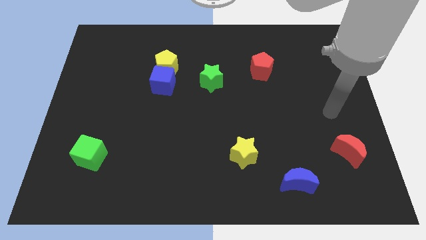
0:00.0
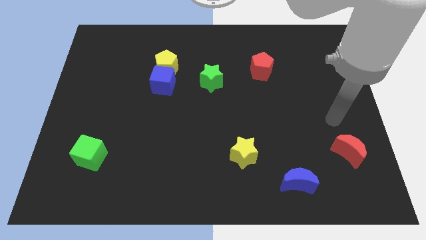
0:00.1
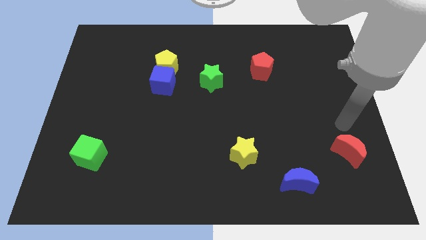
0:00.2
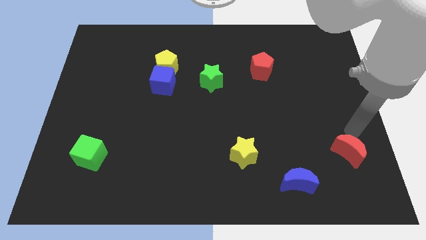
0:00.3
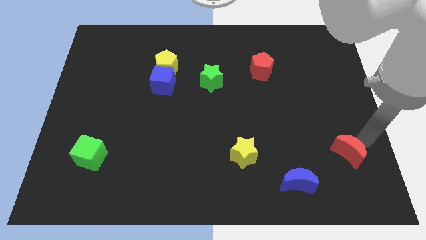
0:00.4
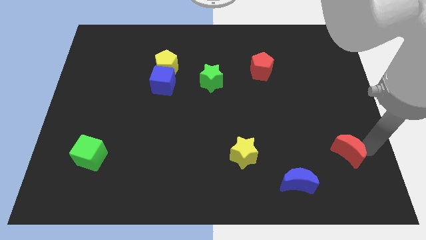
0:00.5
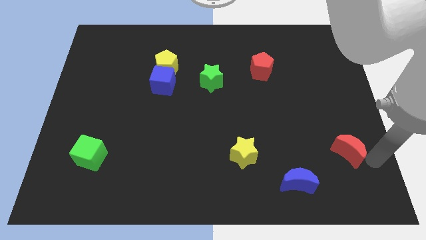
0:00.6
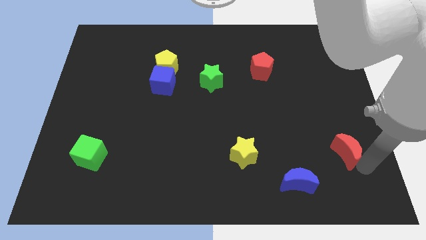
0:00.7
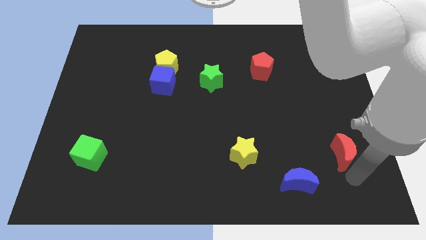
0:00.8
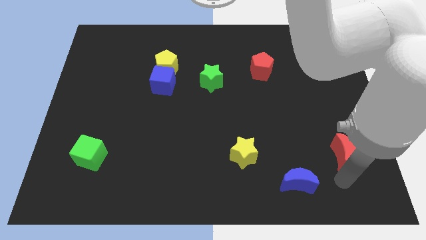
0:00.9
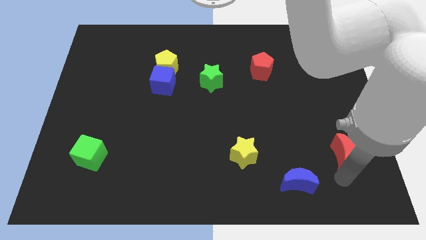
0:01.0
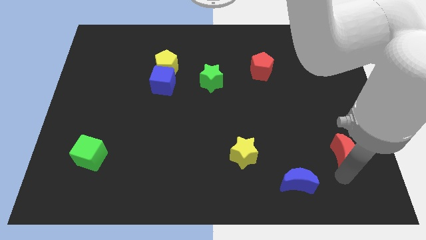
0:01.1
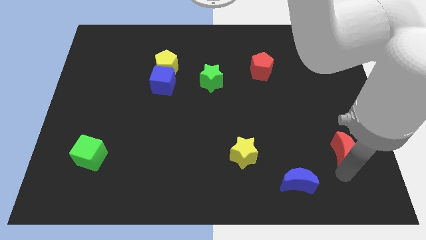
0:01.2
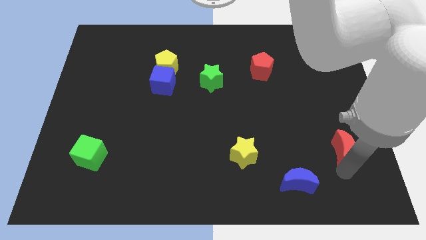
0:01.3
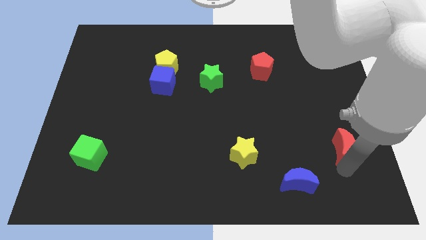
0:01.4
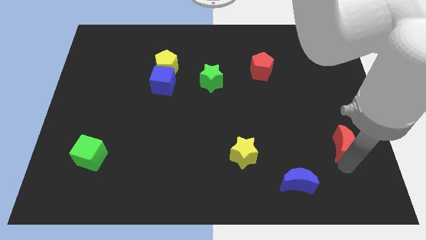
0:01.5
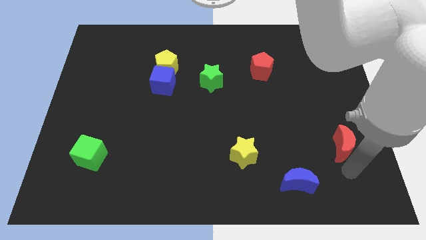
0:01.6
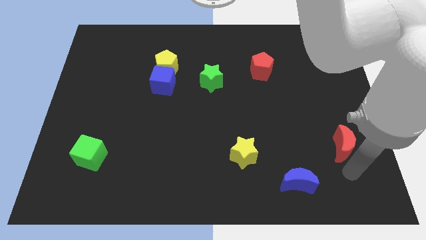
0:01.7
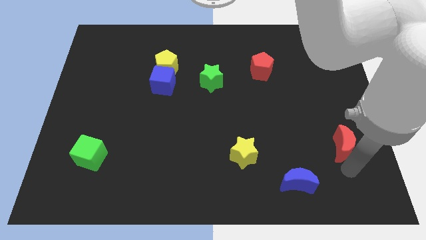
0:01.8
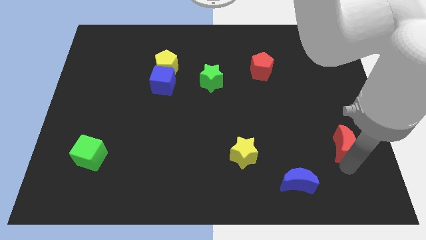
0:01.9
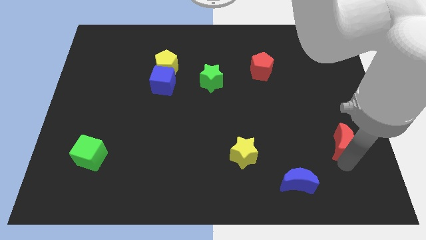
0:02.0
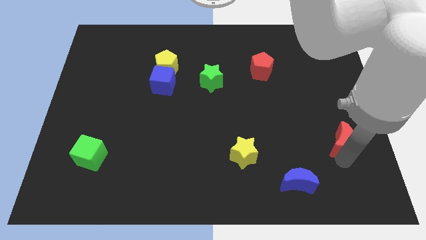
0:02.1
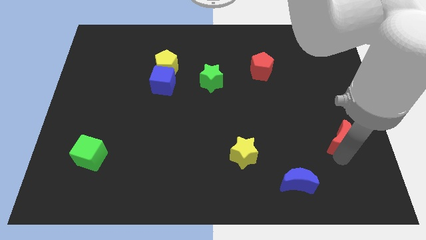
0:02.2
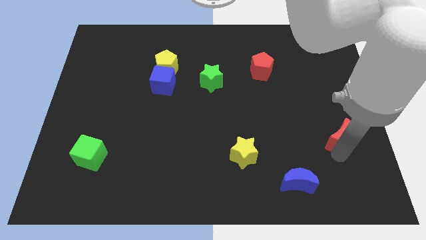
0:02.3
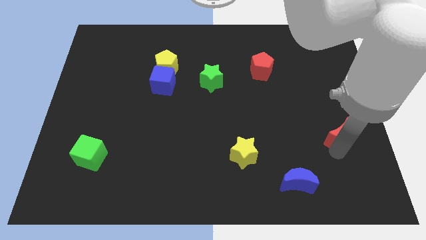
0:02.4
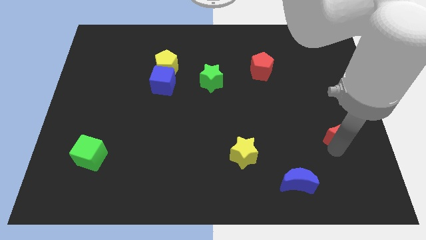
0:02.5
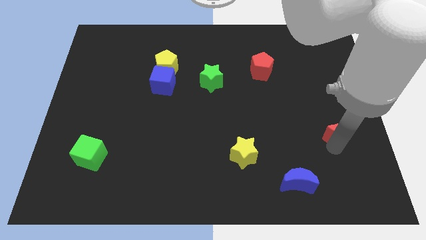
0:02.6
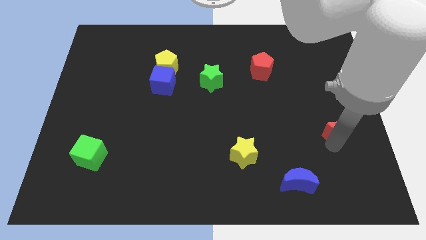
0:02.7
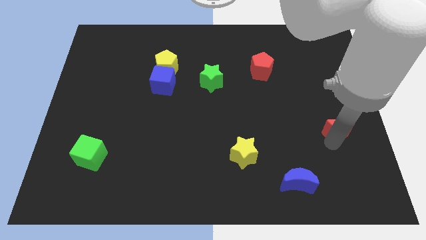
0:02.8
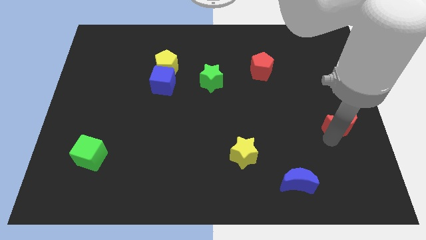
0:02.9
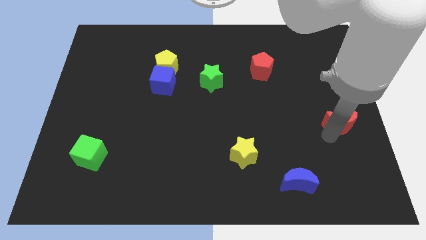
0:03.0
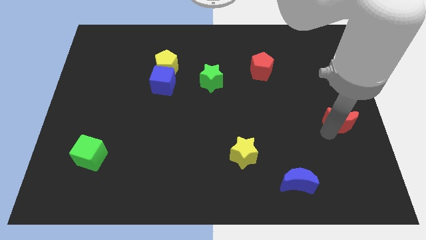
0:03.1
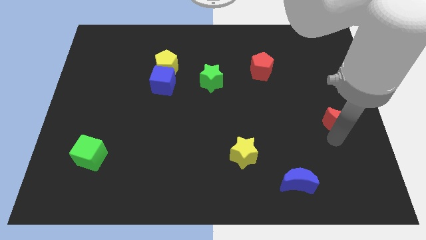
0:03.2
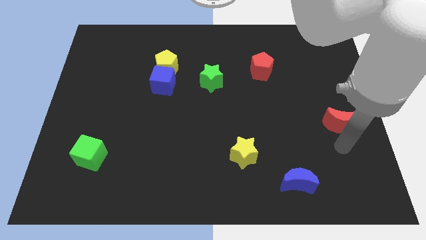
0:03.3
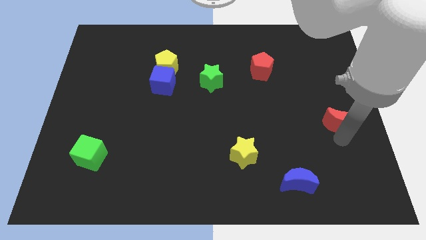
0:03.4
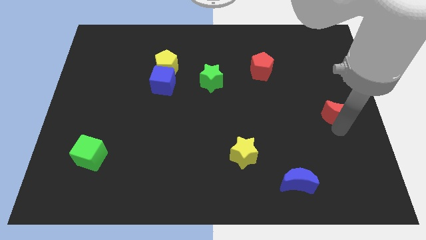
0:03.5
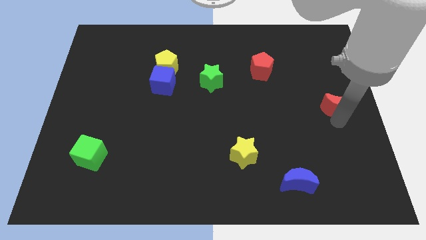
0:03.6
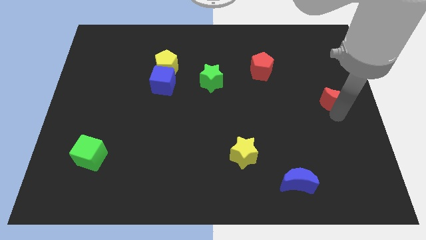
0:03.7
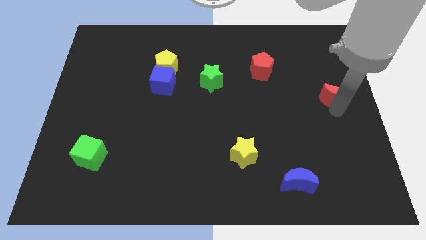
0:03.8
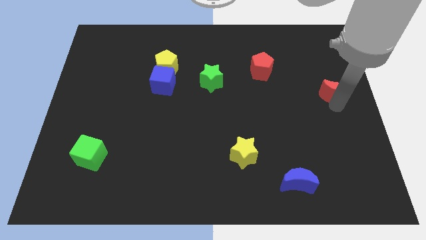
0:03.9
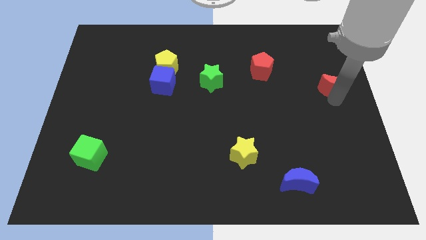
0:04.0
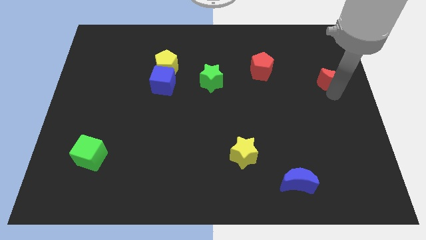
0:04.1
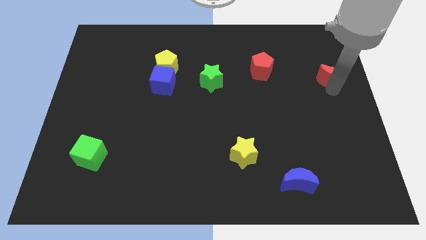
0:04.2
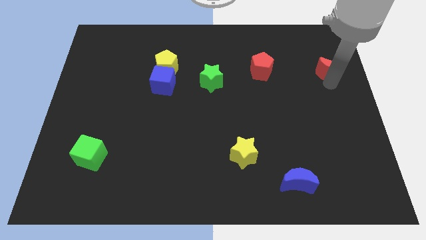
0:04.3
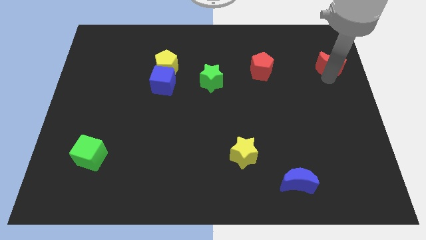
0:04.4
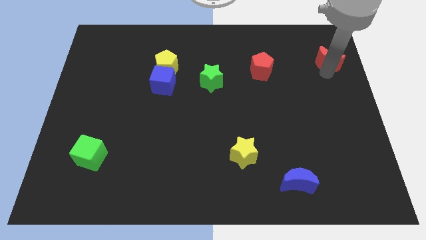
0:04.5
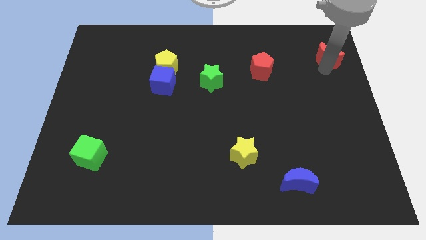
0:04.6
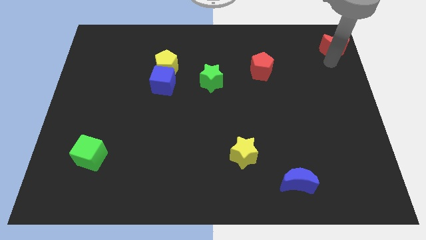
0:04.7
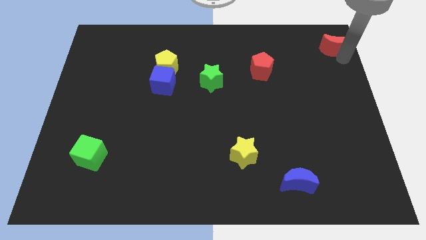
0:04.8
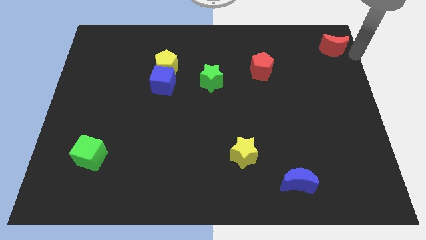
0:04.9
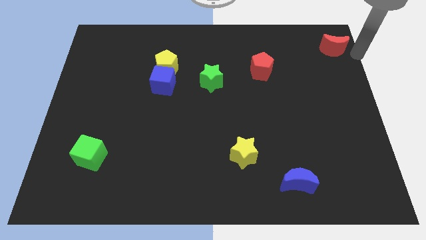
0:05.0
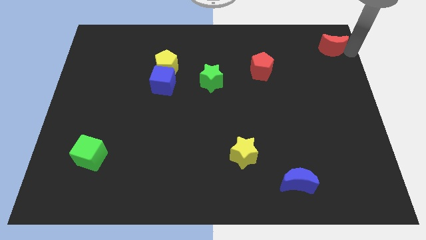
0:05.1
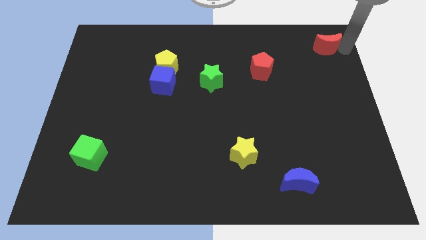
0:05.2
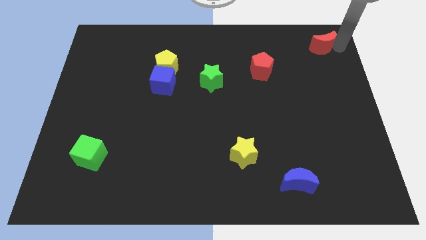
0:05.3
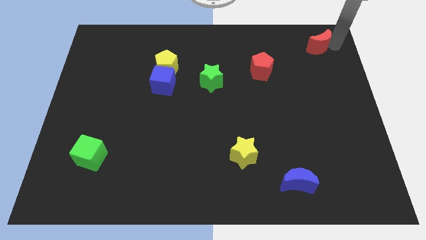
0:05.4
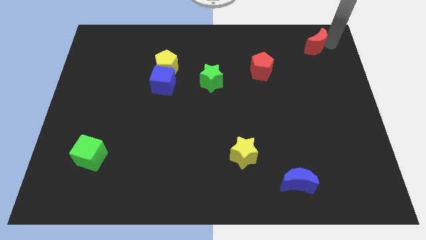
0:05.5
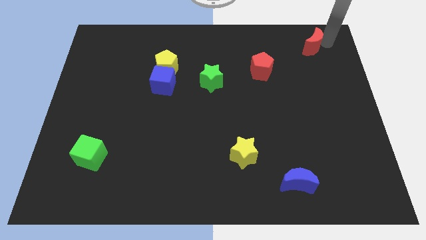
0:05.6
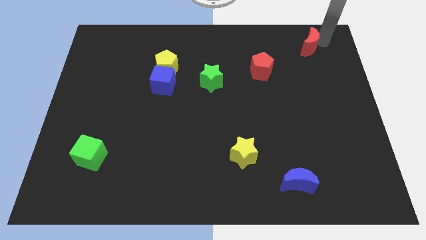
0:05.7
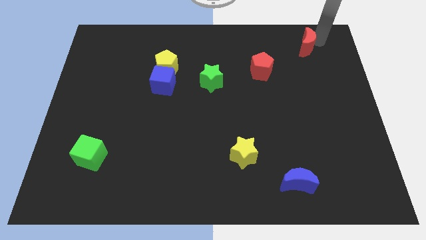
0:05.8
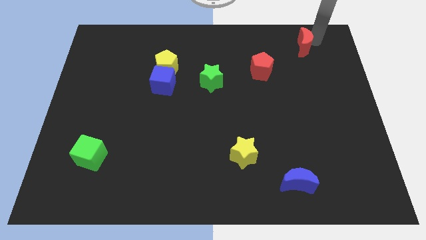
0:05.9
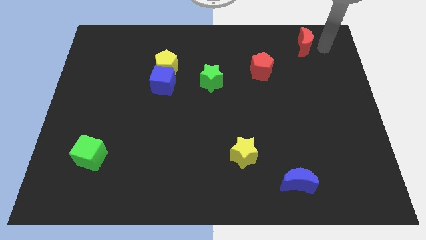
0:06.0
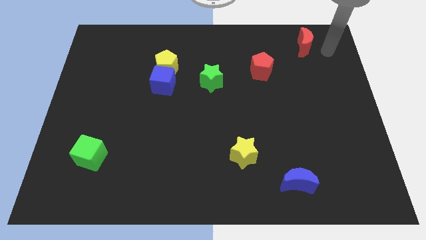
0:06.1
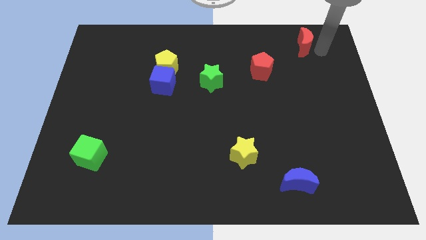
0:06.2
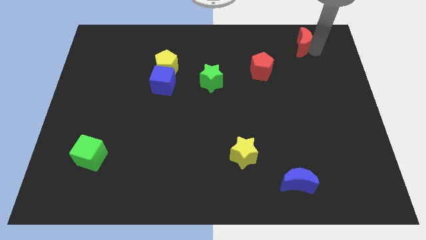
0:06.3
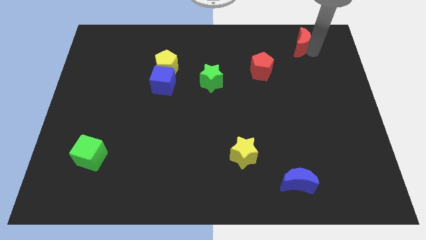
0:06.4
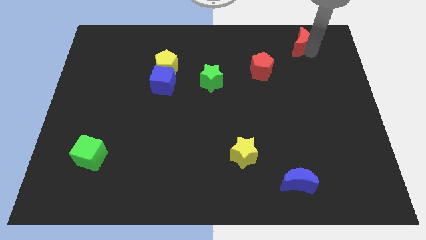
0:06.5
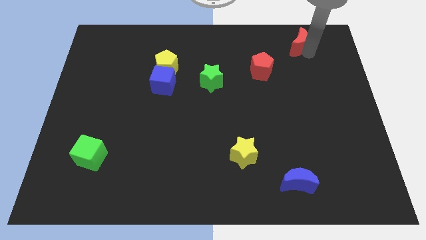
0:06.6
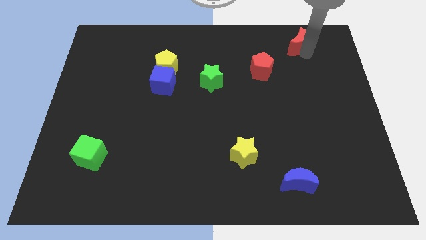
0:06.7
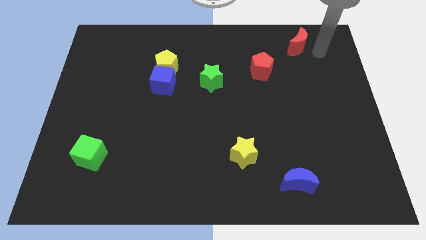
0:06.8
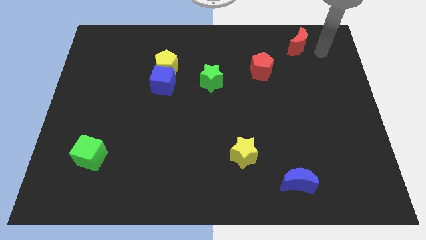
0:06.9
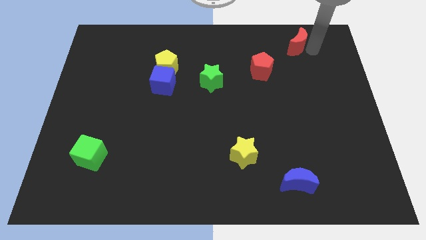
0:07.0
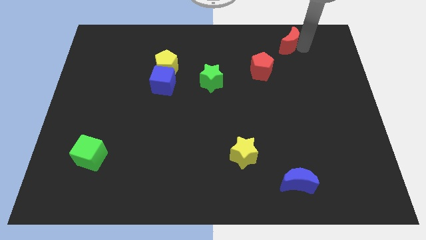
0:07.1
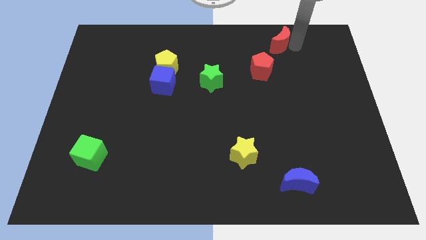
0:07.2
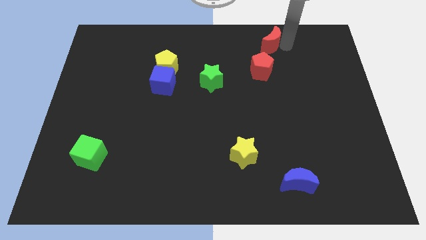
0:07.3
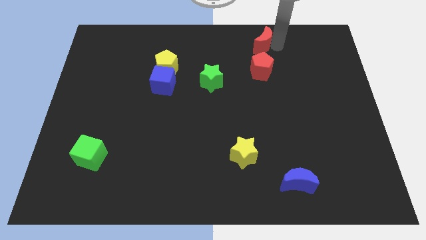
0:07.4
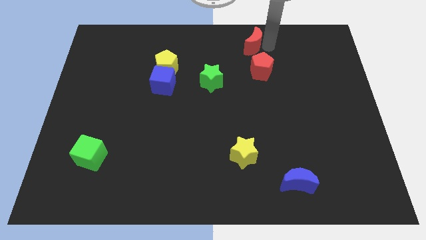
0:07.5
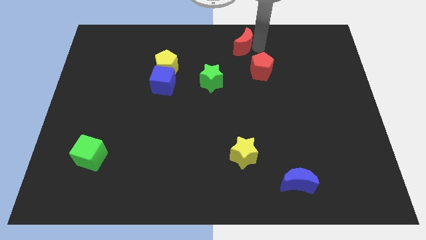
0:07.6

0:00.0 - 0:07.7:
put the red moon to the top side
